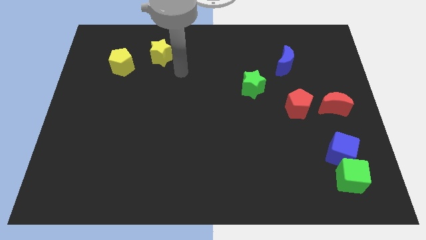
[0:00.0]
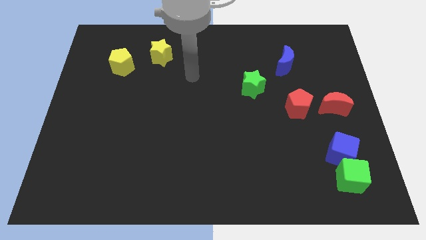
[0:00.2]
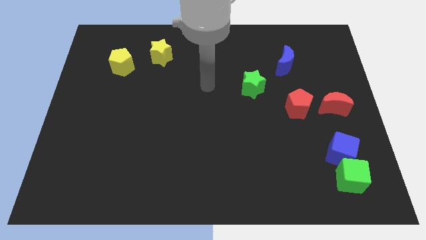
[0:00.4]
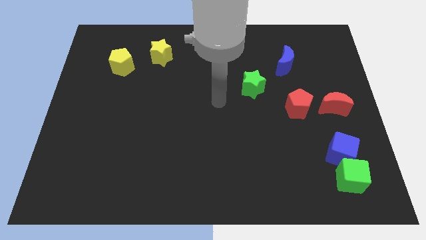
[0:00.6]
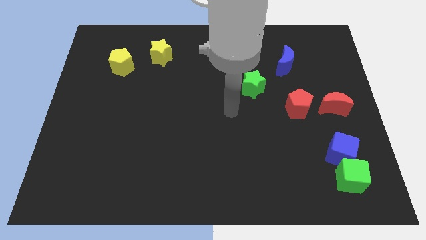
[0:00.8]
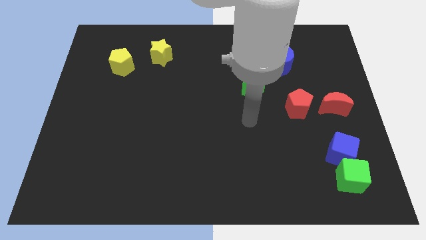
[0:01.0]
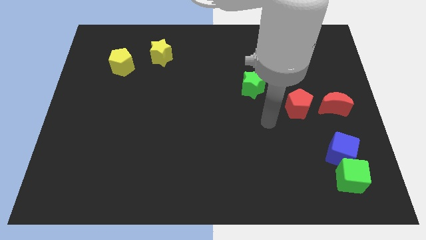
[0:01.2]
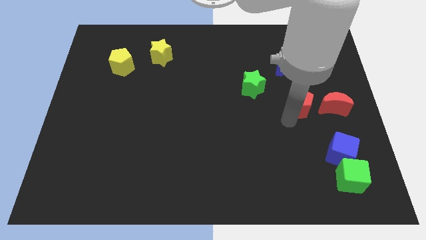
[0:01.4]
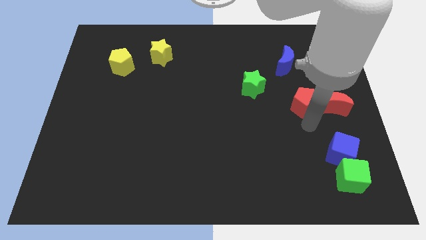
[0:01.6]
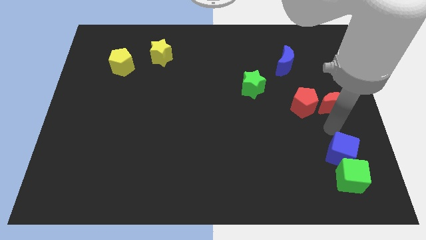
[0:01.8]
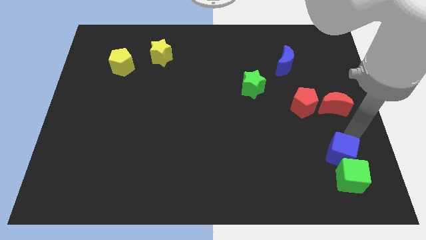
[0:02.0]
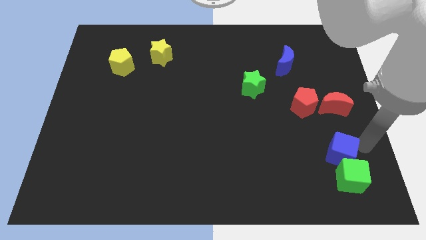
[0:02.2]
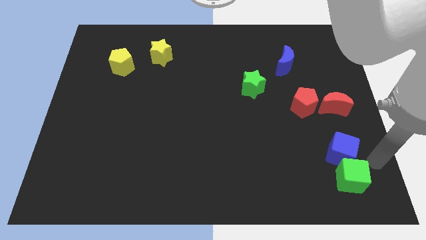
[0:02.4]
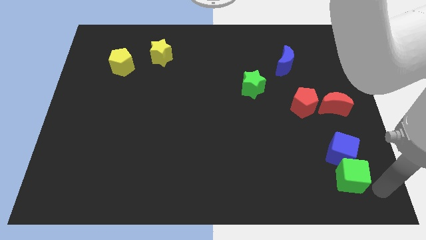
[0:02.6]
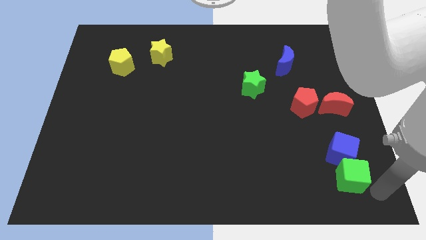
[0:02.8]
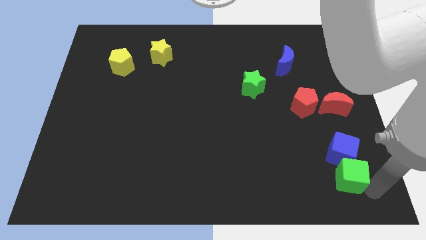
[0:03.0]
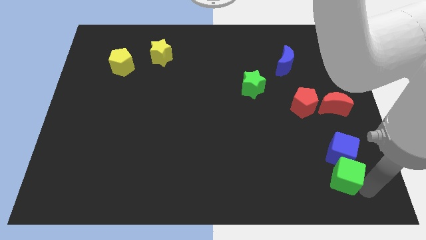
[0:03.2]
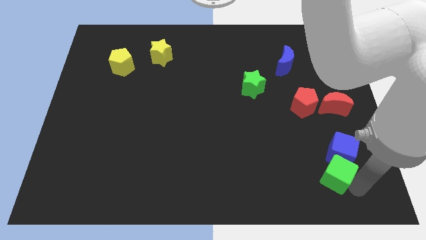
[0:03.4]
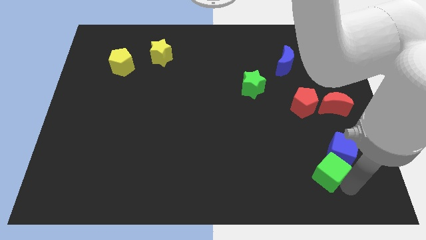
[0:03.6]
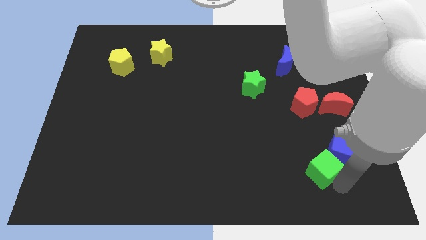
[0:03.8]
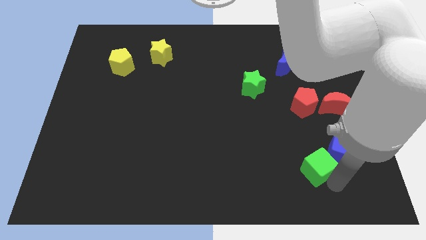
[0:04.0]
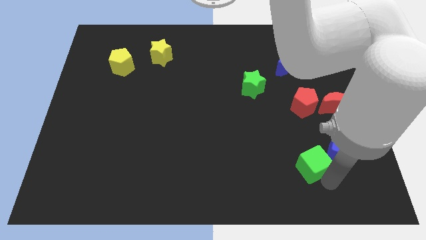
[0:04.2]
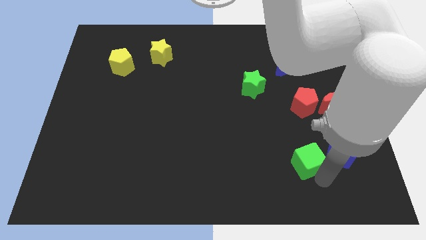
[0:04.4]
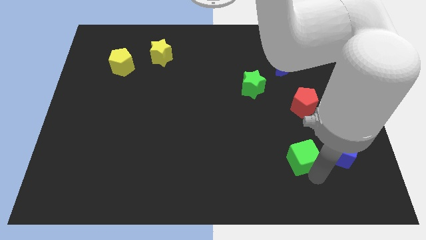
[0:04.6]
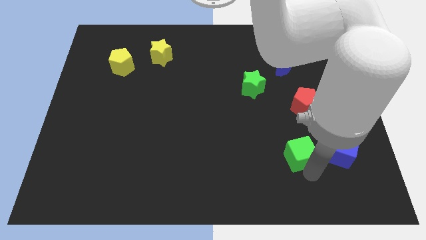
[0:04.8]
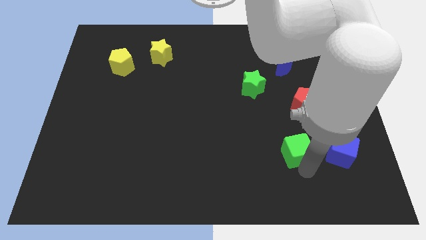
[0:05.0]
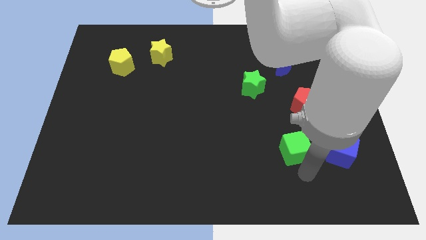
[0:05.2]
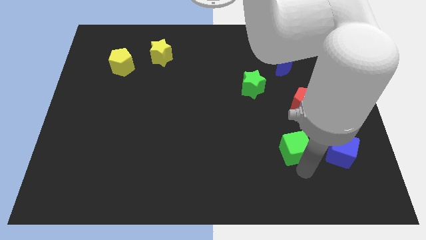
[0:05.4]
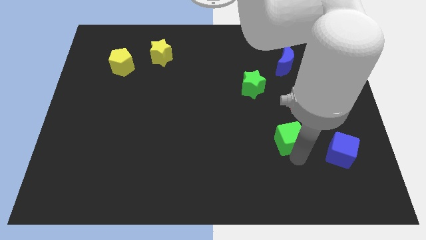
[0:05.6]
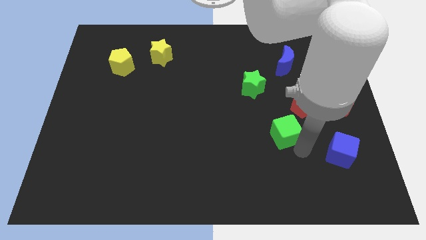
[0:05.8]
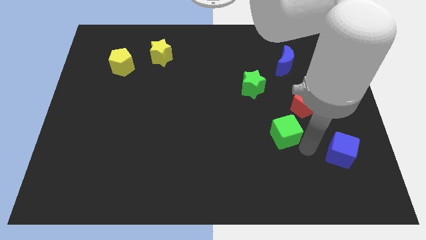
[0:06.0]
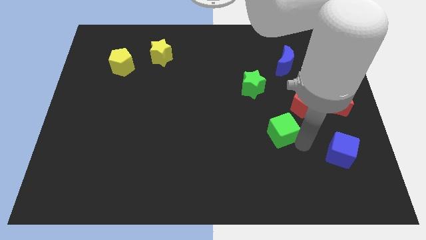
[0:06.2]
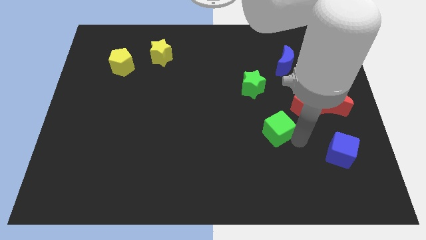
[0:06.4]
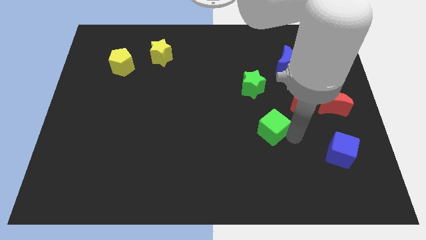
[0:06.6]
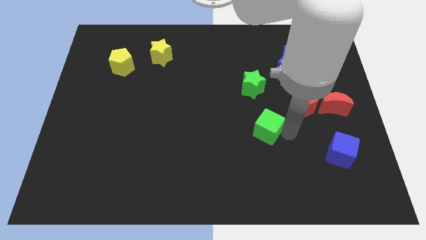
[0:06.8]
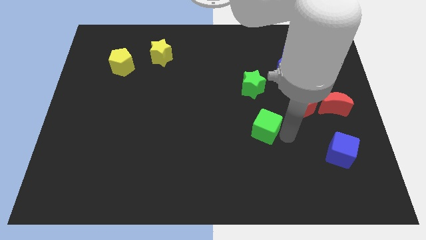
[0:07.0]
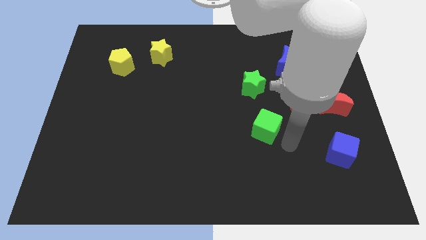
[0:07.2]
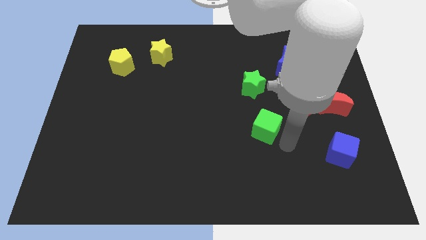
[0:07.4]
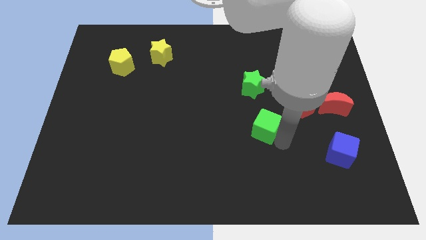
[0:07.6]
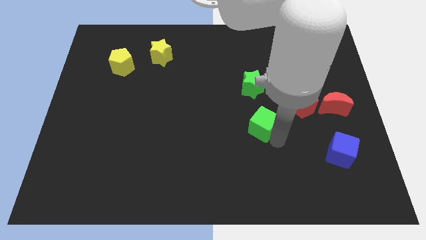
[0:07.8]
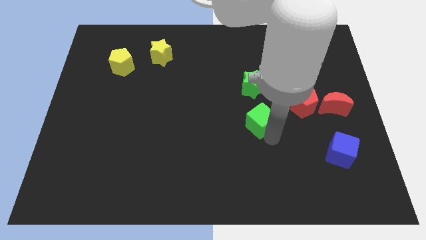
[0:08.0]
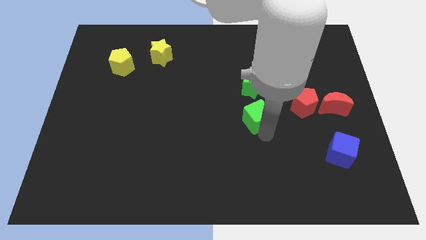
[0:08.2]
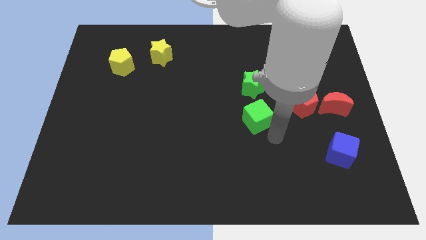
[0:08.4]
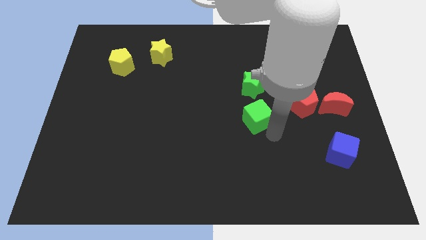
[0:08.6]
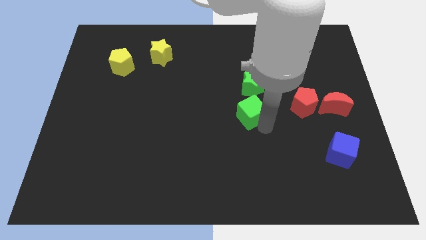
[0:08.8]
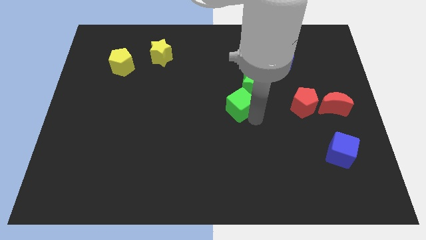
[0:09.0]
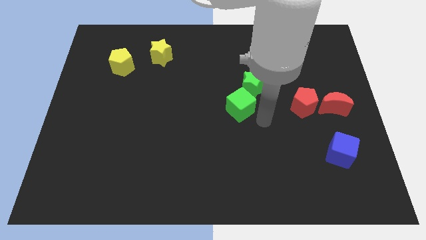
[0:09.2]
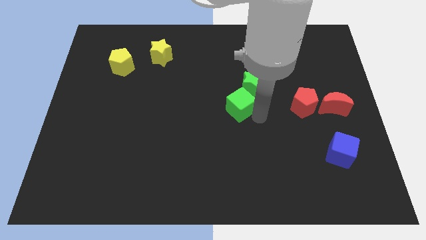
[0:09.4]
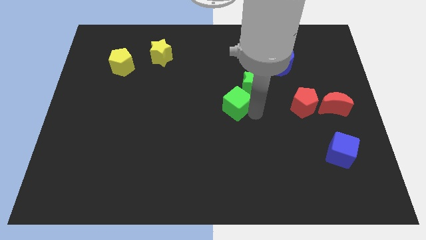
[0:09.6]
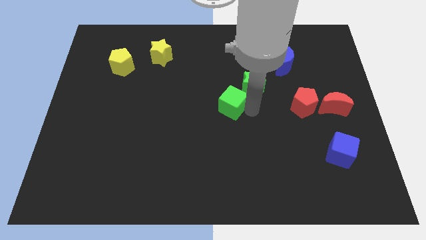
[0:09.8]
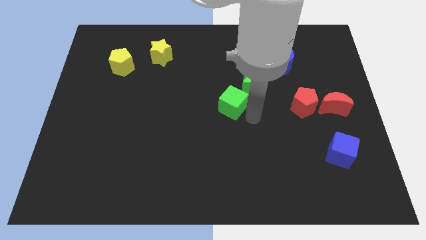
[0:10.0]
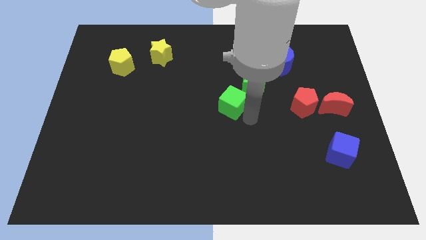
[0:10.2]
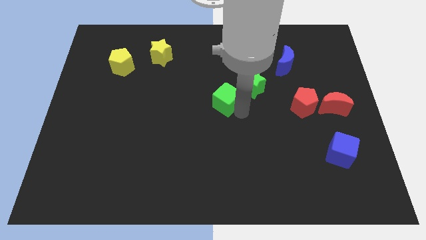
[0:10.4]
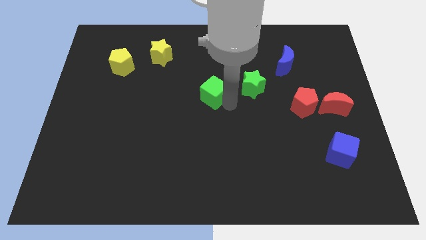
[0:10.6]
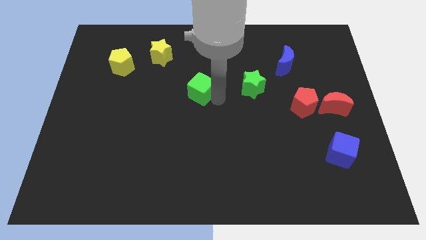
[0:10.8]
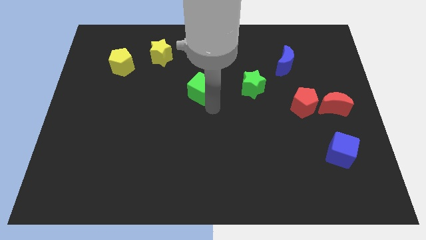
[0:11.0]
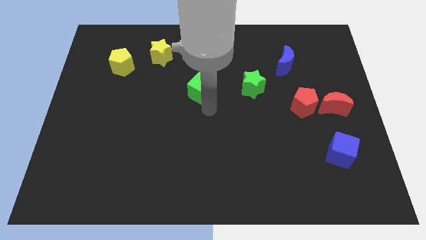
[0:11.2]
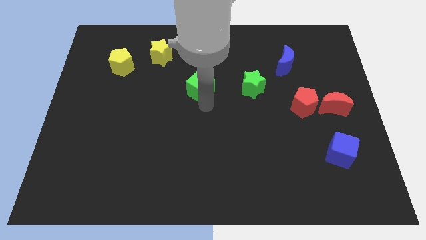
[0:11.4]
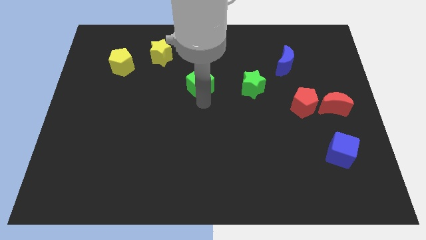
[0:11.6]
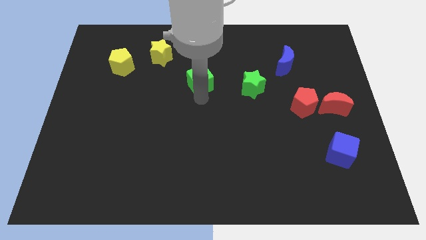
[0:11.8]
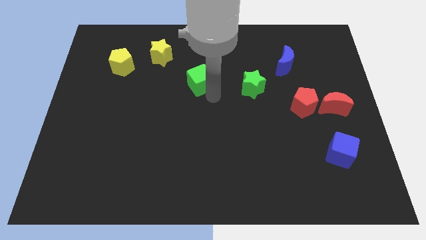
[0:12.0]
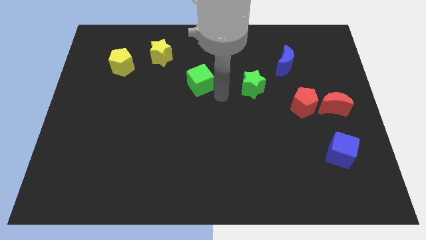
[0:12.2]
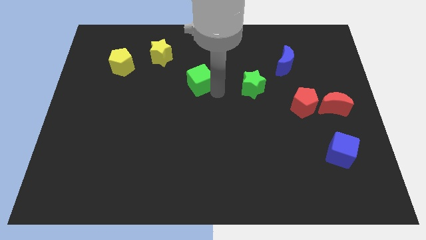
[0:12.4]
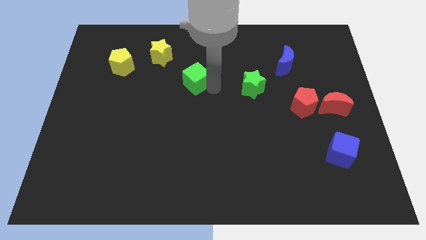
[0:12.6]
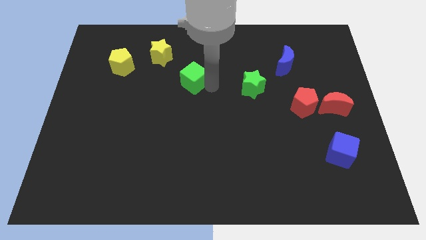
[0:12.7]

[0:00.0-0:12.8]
put the green cube to the bottom right side of the yellow star

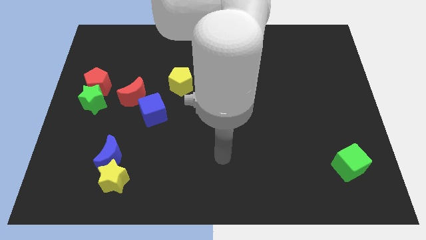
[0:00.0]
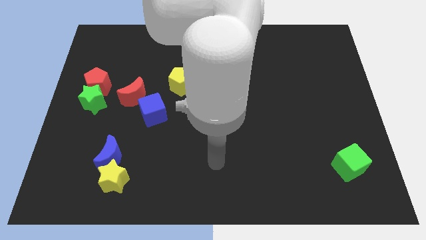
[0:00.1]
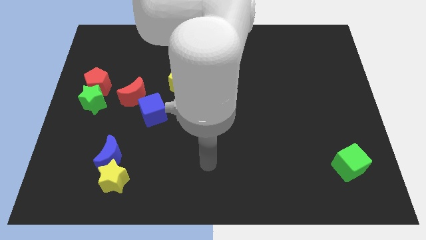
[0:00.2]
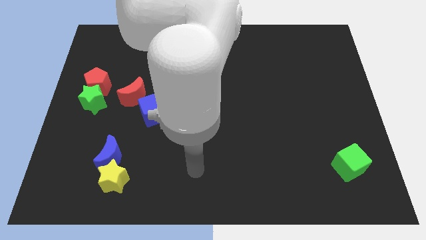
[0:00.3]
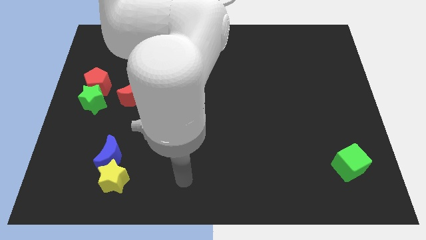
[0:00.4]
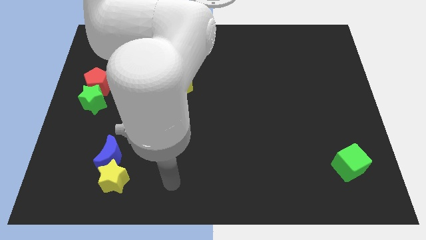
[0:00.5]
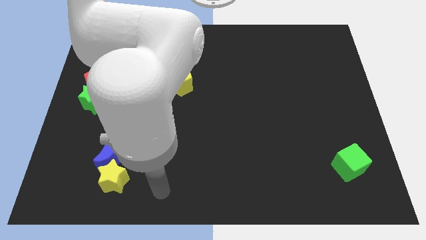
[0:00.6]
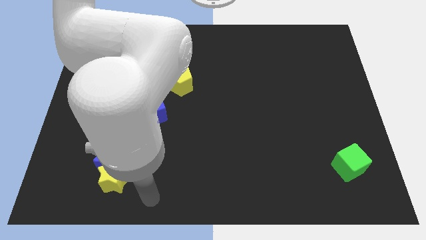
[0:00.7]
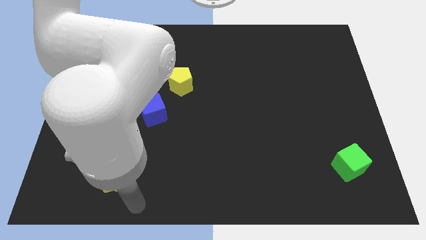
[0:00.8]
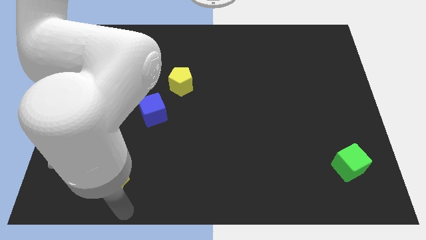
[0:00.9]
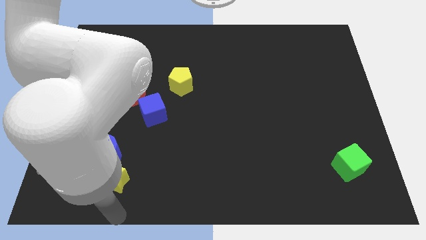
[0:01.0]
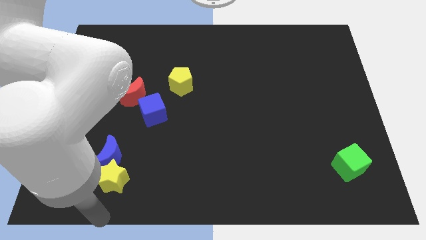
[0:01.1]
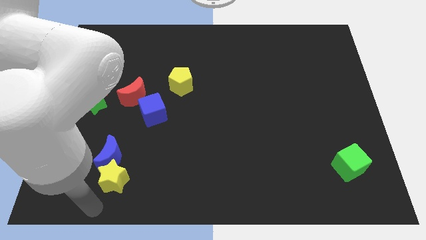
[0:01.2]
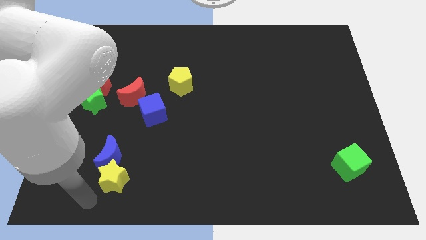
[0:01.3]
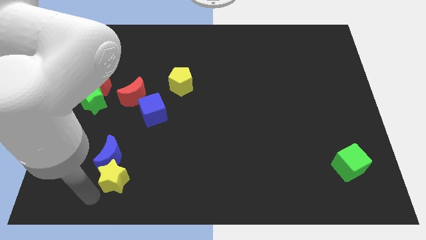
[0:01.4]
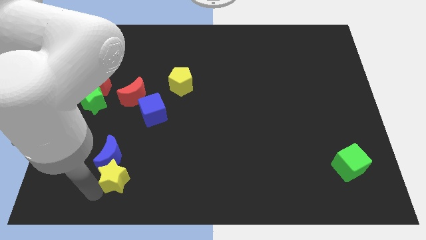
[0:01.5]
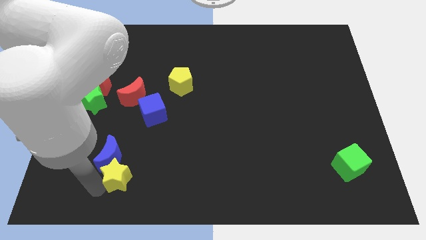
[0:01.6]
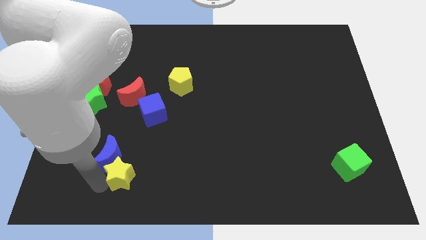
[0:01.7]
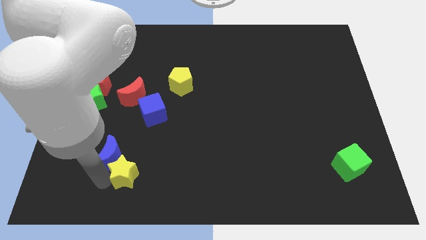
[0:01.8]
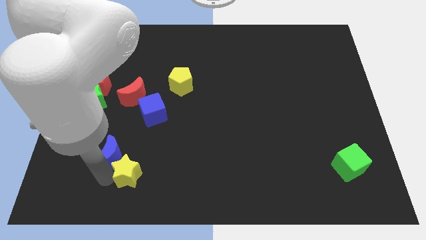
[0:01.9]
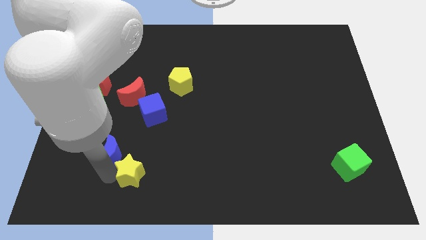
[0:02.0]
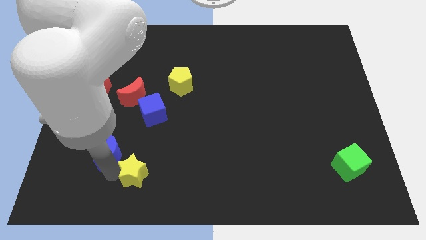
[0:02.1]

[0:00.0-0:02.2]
move the yellow star to the bottom of the blue cube
